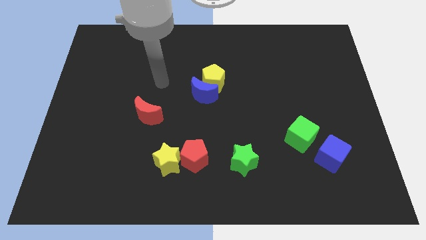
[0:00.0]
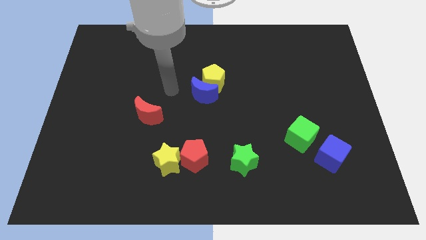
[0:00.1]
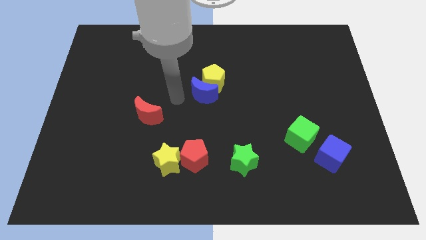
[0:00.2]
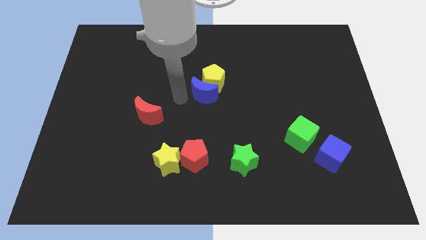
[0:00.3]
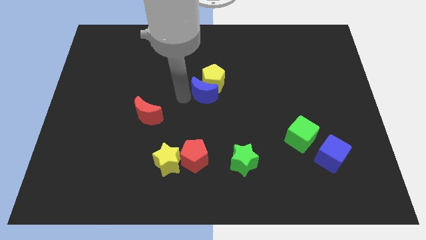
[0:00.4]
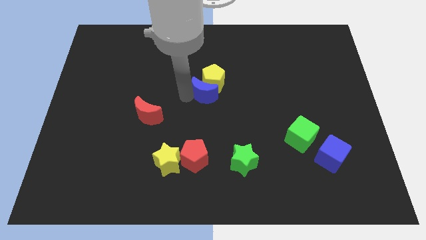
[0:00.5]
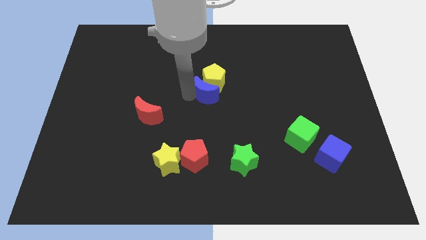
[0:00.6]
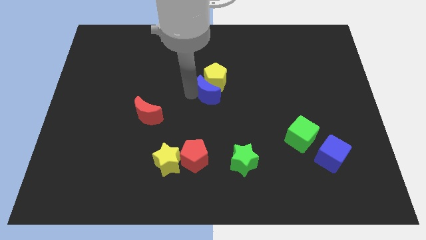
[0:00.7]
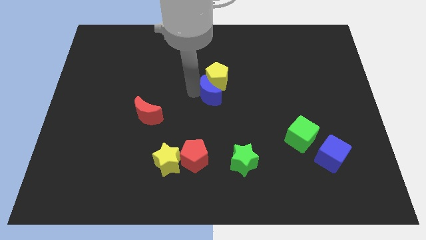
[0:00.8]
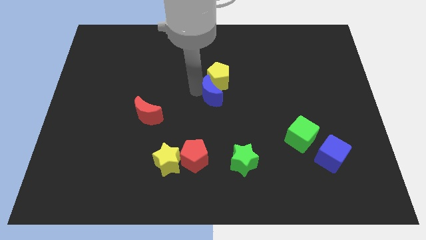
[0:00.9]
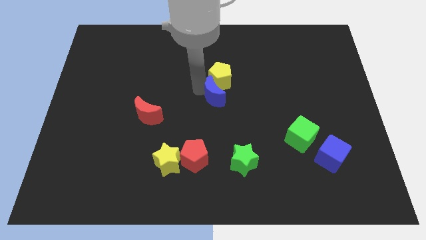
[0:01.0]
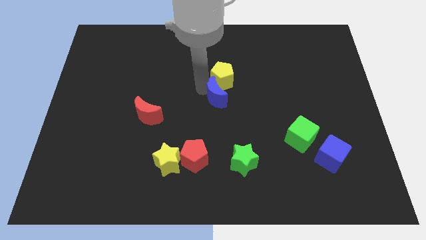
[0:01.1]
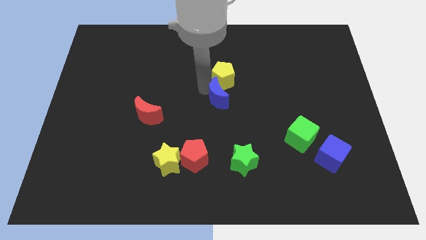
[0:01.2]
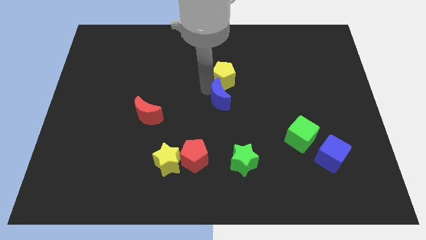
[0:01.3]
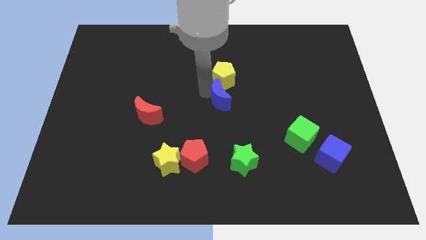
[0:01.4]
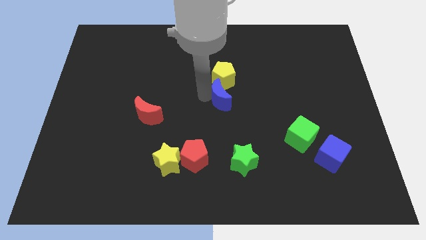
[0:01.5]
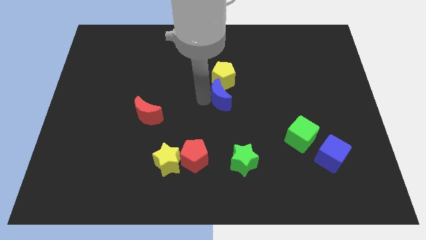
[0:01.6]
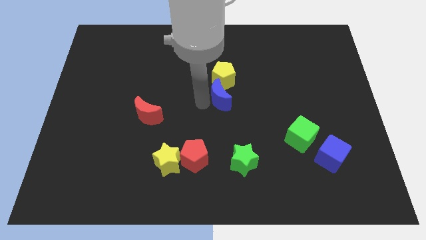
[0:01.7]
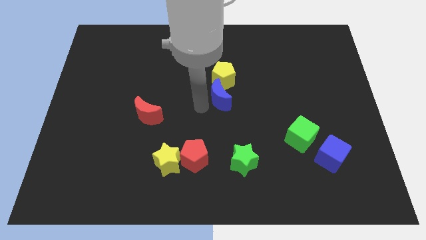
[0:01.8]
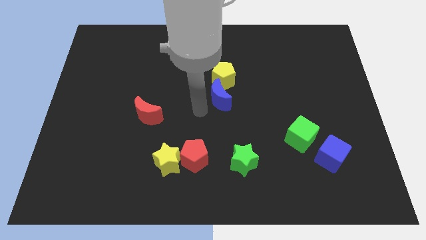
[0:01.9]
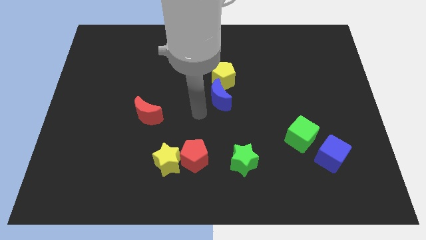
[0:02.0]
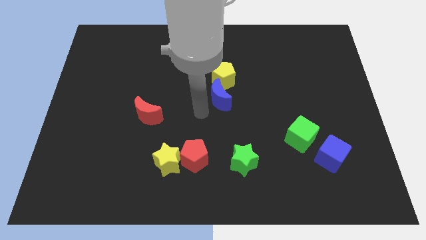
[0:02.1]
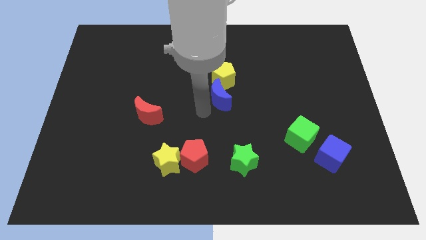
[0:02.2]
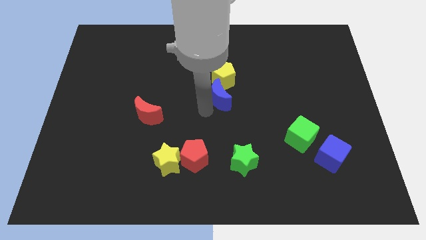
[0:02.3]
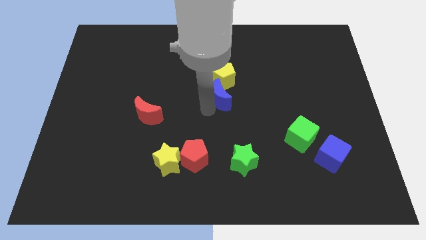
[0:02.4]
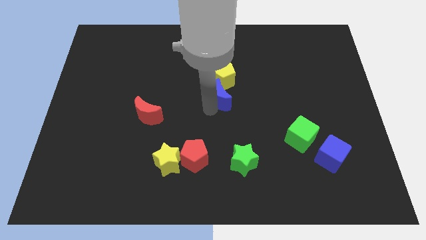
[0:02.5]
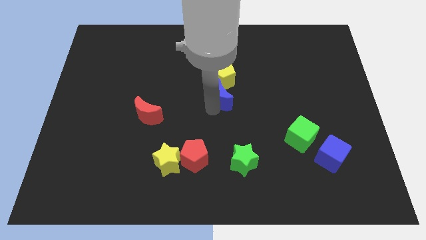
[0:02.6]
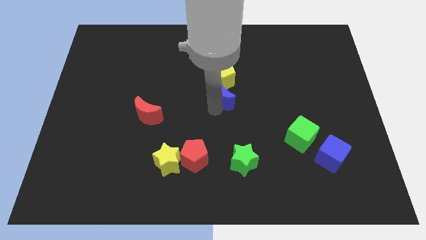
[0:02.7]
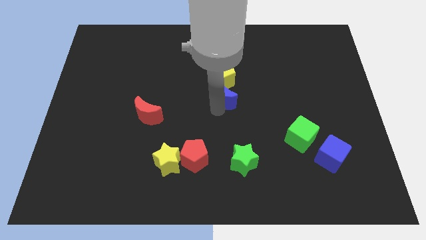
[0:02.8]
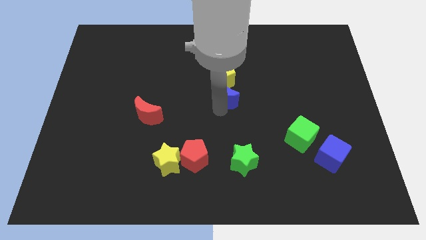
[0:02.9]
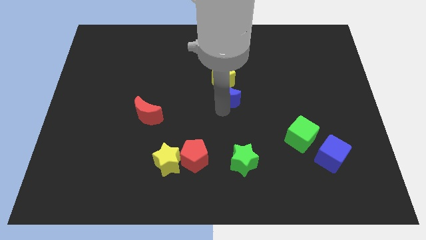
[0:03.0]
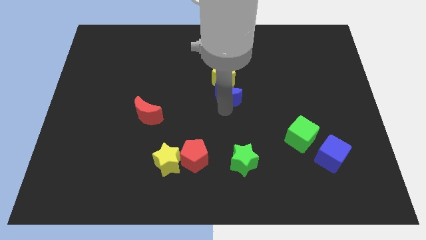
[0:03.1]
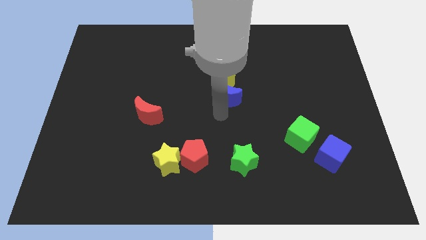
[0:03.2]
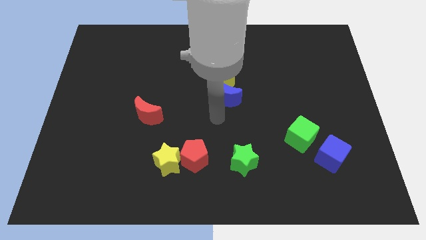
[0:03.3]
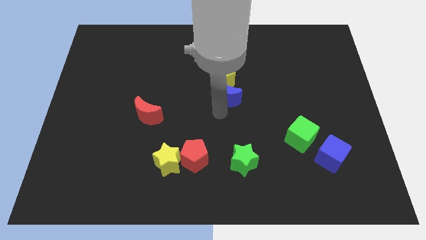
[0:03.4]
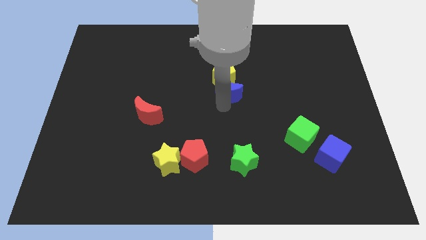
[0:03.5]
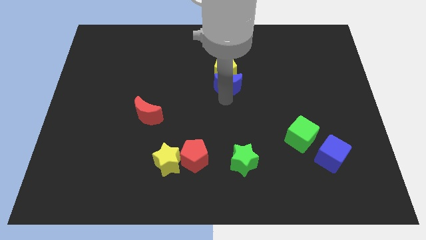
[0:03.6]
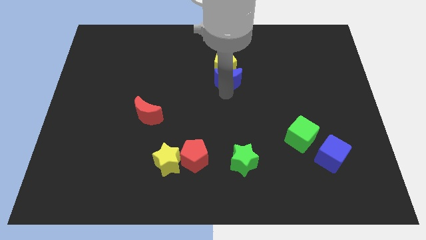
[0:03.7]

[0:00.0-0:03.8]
slightly move the blue moon upwards and then right

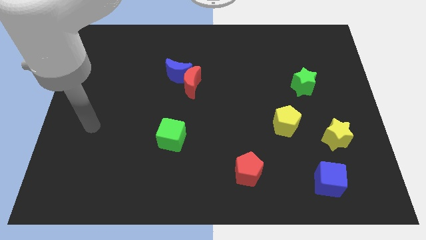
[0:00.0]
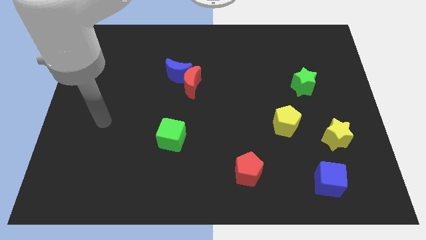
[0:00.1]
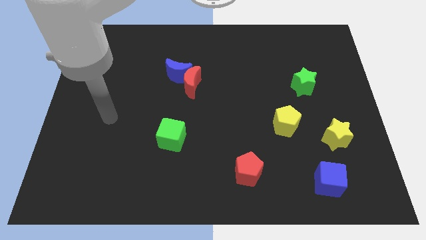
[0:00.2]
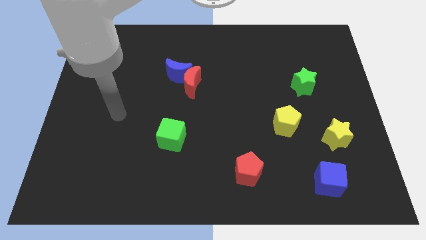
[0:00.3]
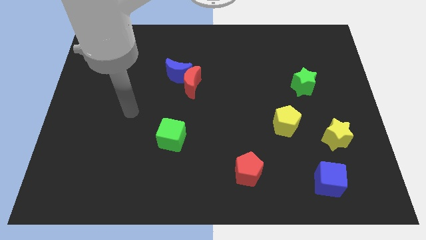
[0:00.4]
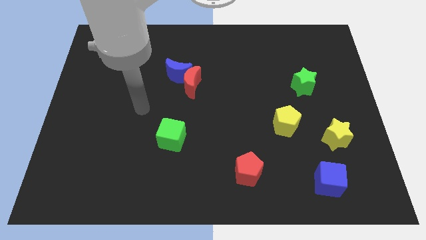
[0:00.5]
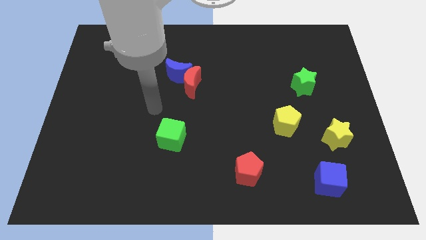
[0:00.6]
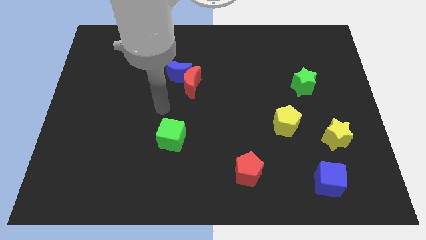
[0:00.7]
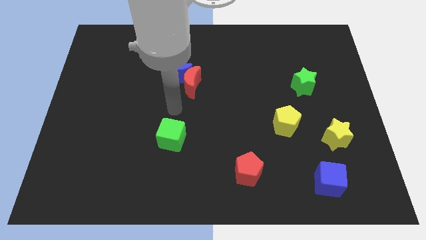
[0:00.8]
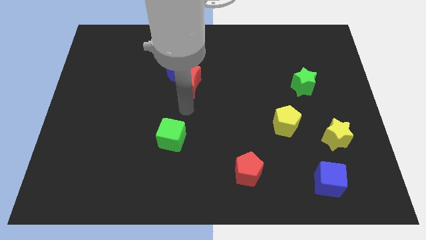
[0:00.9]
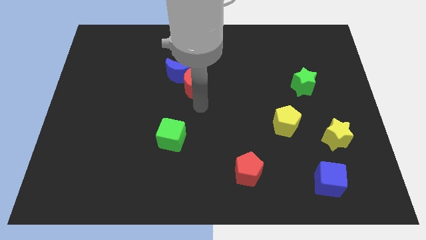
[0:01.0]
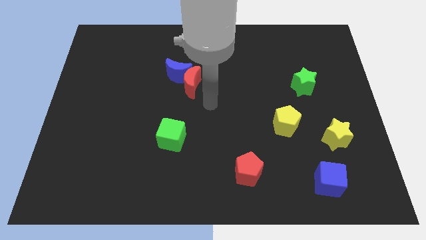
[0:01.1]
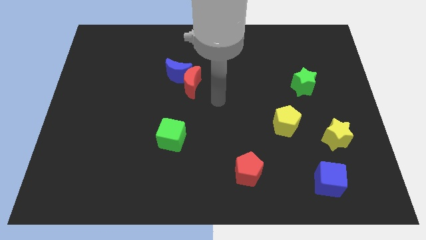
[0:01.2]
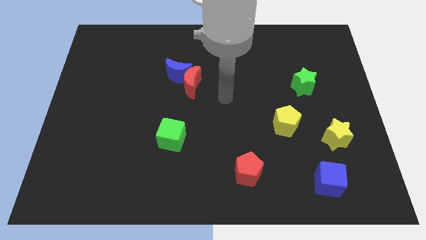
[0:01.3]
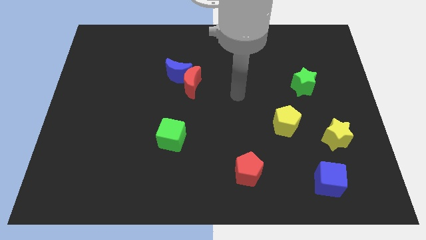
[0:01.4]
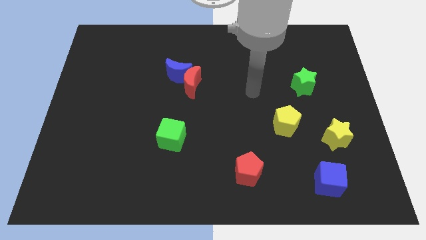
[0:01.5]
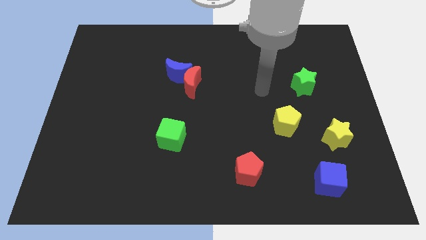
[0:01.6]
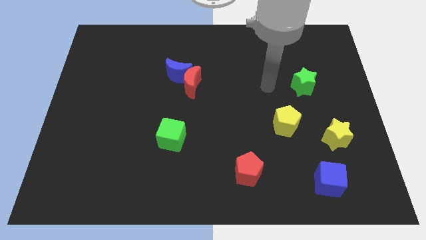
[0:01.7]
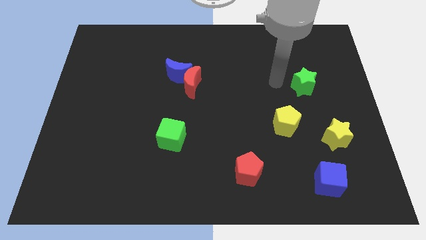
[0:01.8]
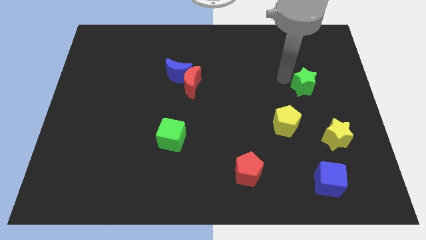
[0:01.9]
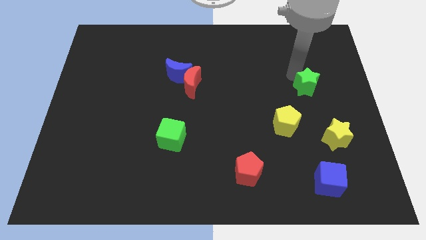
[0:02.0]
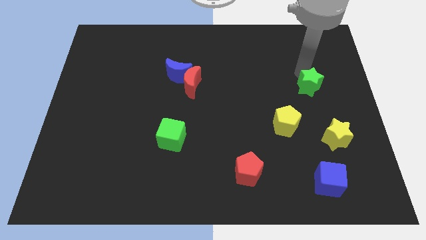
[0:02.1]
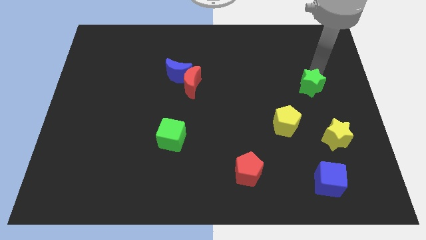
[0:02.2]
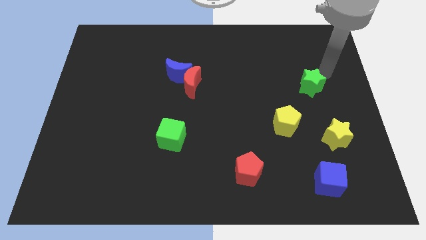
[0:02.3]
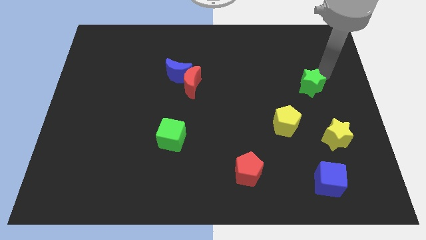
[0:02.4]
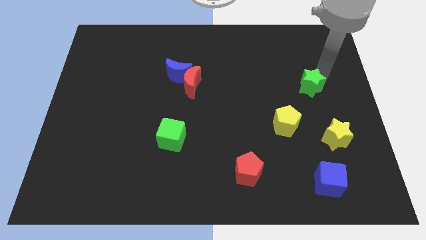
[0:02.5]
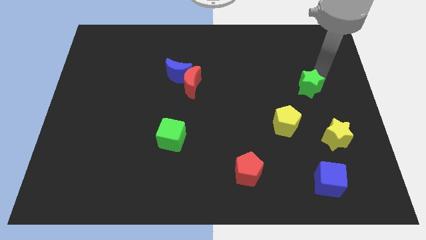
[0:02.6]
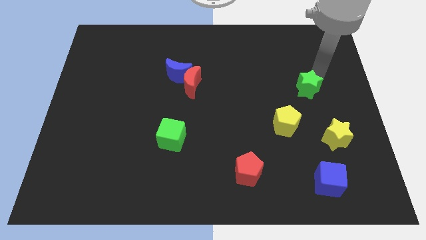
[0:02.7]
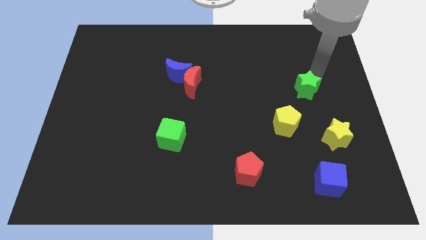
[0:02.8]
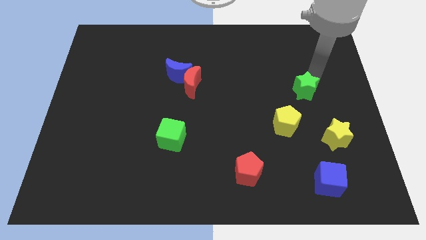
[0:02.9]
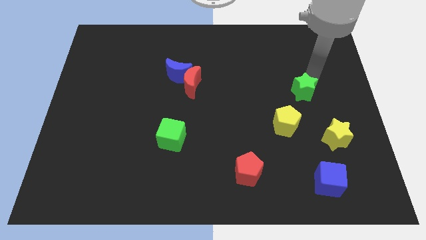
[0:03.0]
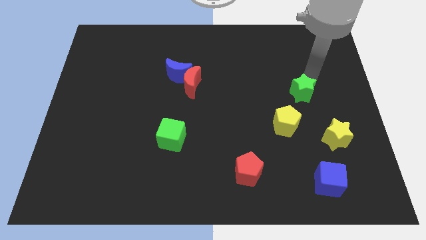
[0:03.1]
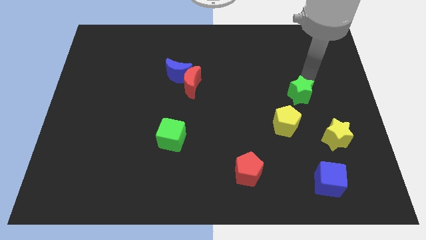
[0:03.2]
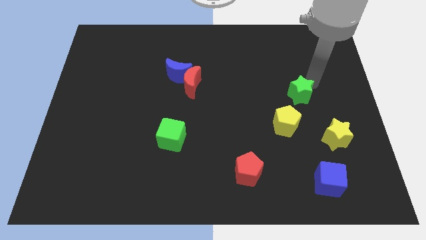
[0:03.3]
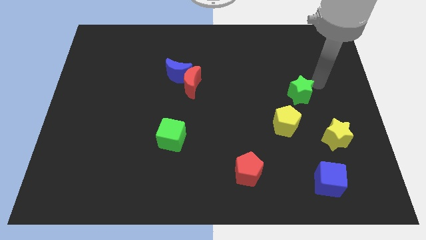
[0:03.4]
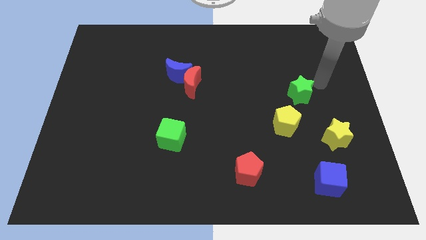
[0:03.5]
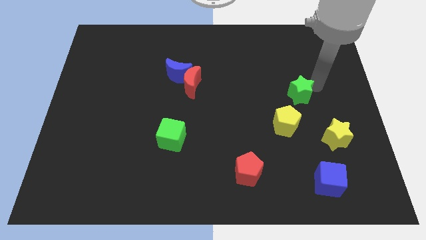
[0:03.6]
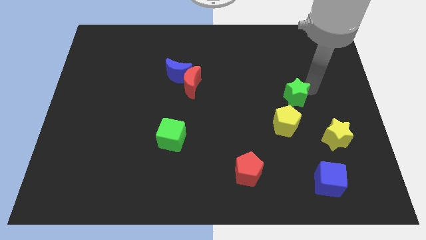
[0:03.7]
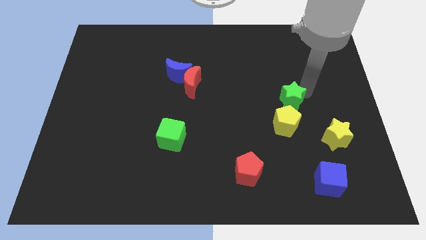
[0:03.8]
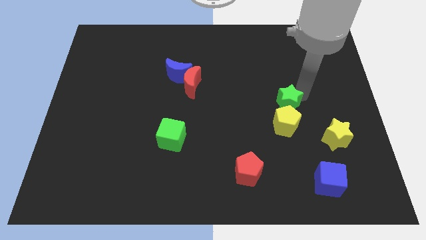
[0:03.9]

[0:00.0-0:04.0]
slide the green star downwards and left diagonally a little

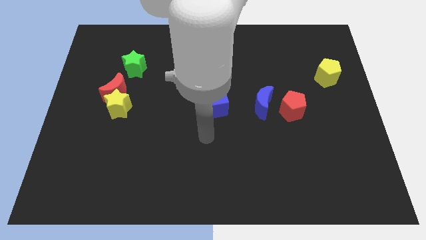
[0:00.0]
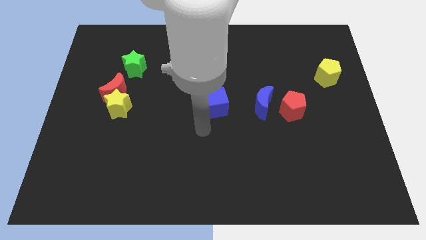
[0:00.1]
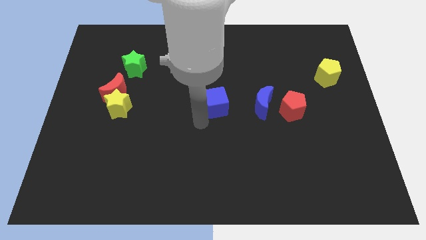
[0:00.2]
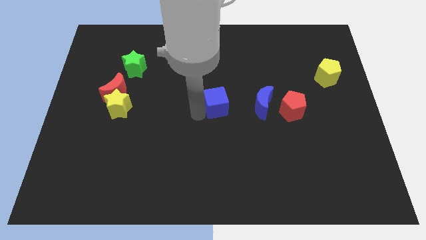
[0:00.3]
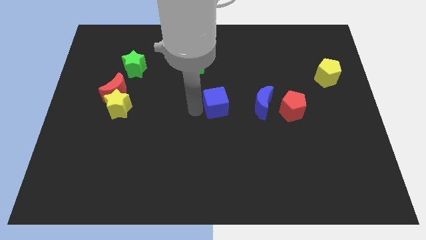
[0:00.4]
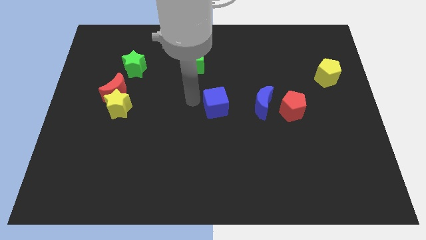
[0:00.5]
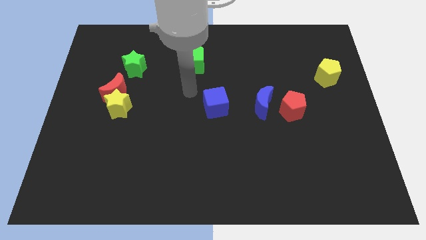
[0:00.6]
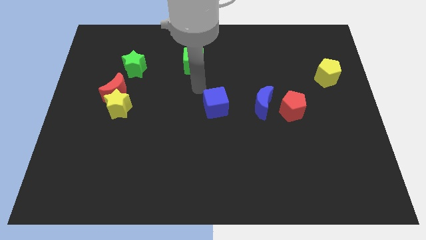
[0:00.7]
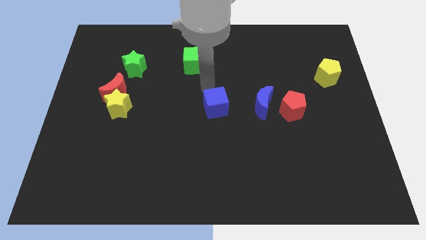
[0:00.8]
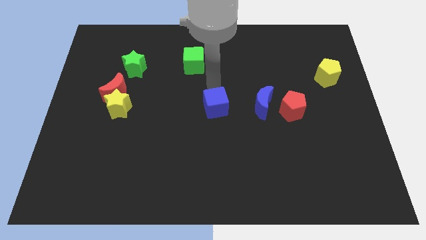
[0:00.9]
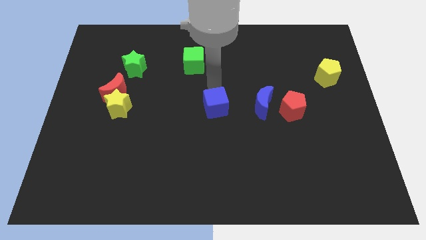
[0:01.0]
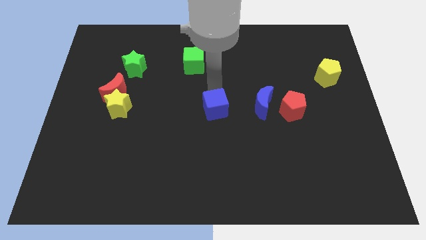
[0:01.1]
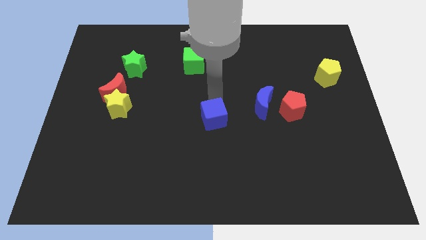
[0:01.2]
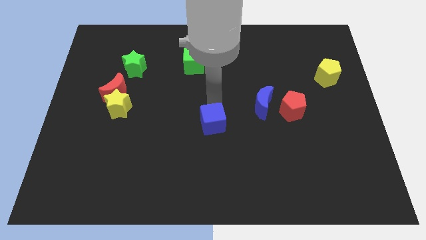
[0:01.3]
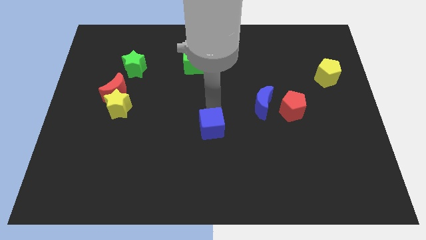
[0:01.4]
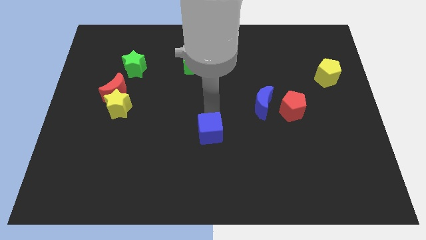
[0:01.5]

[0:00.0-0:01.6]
push the blue cube downwards a little
